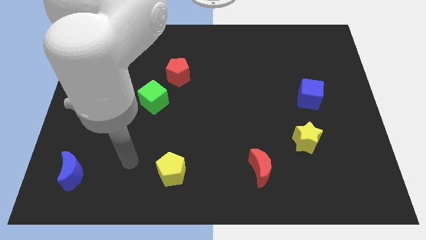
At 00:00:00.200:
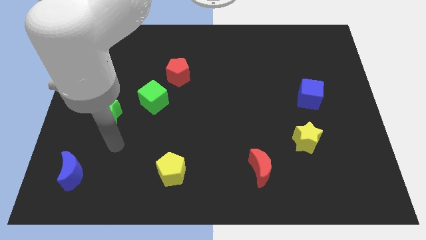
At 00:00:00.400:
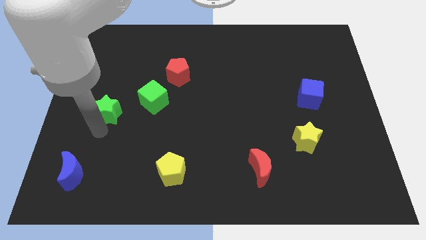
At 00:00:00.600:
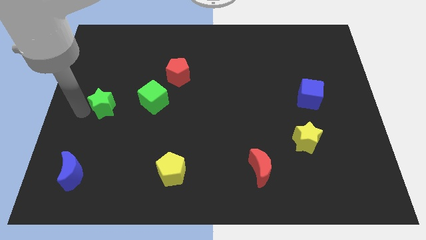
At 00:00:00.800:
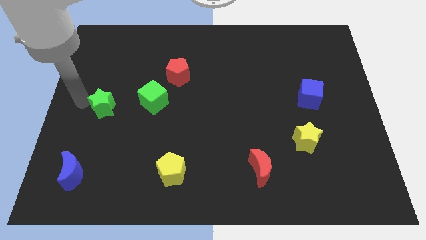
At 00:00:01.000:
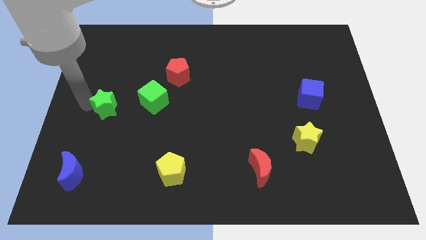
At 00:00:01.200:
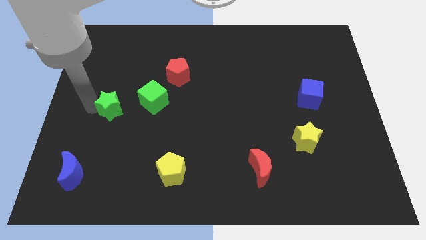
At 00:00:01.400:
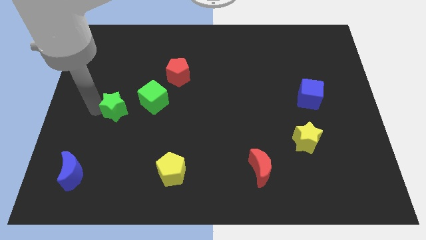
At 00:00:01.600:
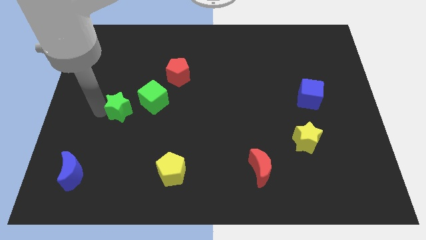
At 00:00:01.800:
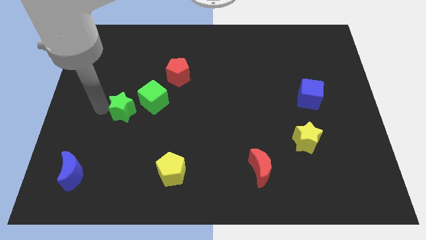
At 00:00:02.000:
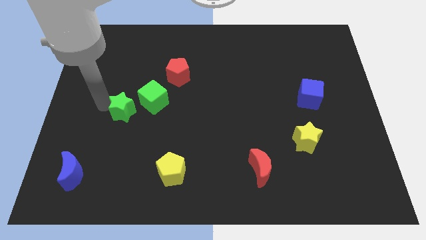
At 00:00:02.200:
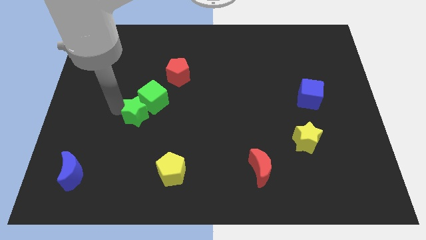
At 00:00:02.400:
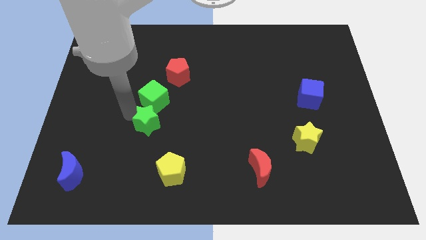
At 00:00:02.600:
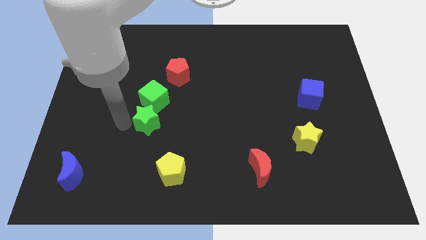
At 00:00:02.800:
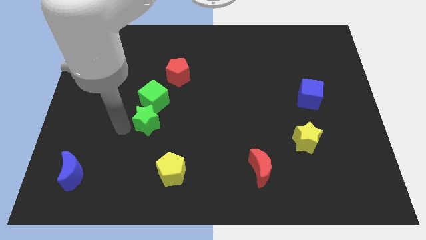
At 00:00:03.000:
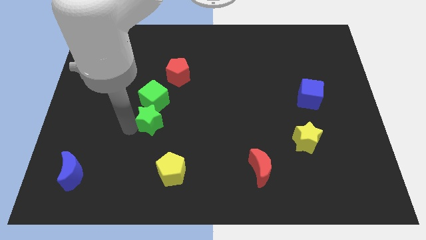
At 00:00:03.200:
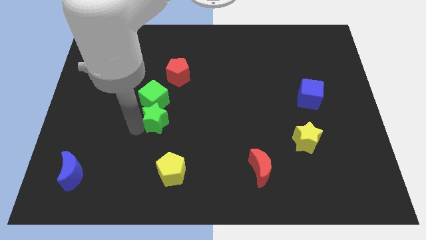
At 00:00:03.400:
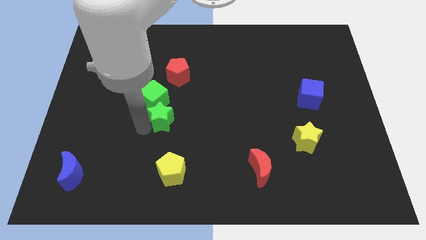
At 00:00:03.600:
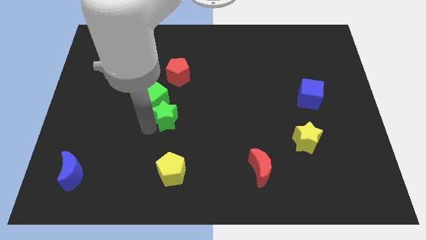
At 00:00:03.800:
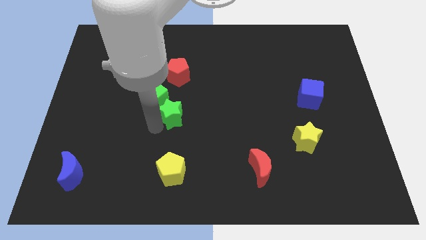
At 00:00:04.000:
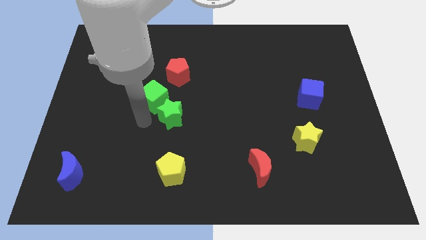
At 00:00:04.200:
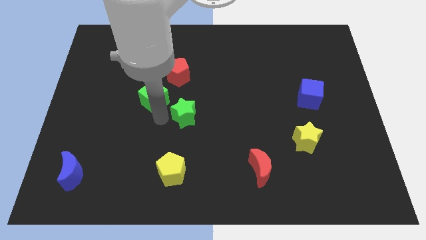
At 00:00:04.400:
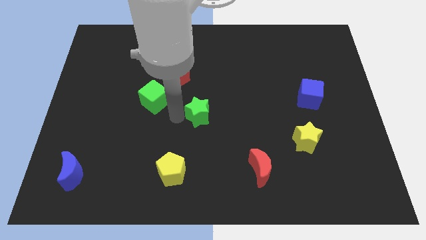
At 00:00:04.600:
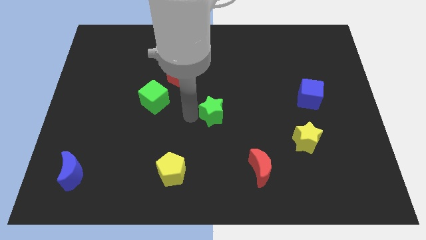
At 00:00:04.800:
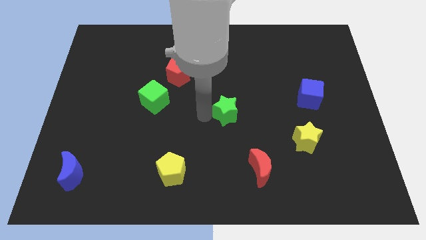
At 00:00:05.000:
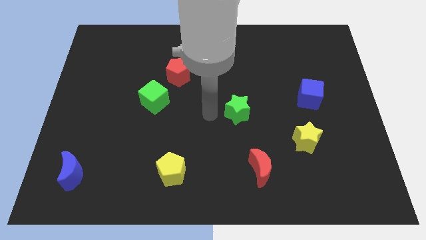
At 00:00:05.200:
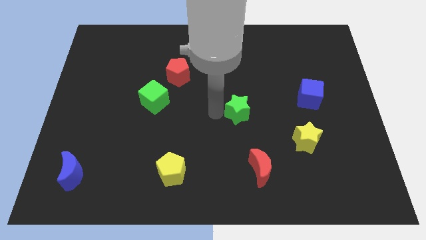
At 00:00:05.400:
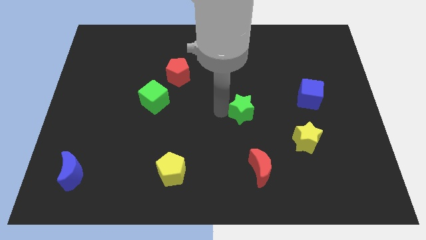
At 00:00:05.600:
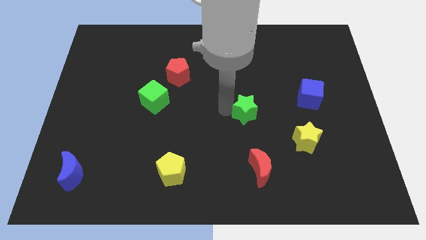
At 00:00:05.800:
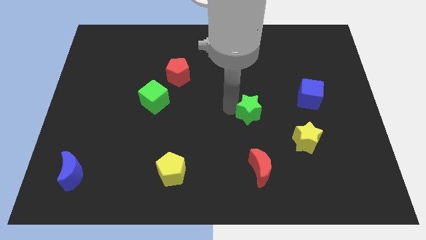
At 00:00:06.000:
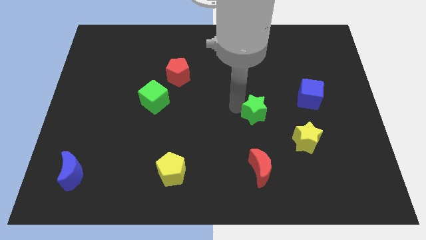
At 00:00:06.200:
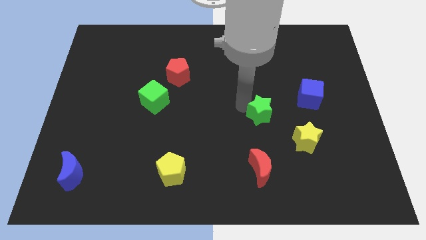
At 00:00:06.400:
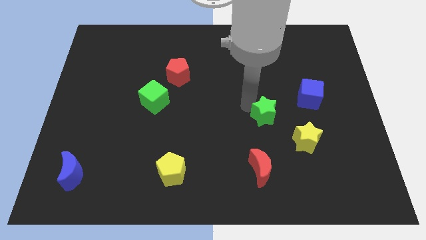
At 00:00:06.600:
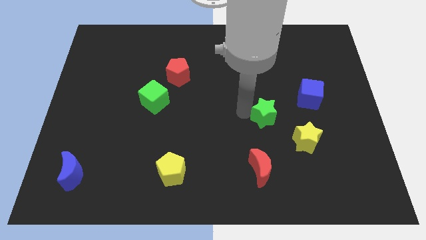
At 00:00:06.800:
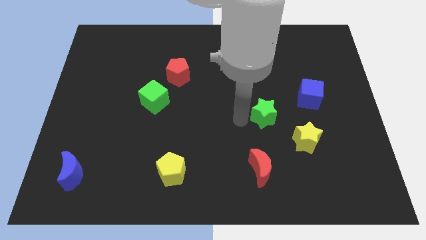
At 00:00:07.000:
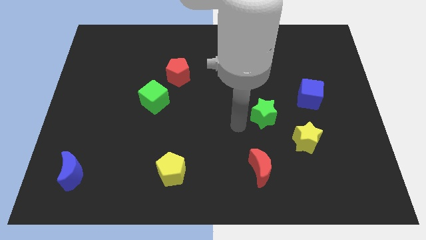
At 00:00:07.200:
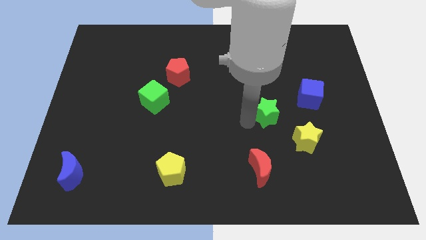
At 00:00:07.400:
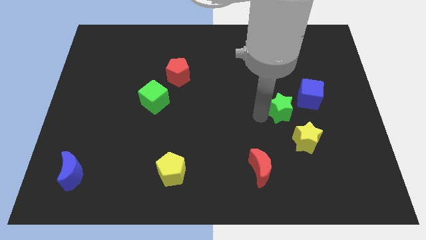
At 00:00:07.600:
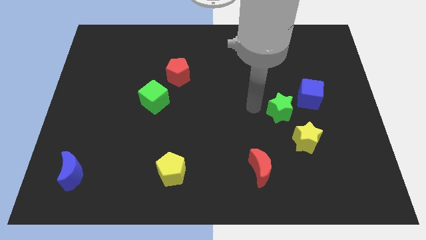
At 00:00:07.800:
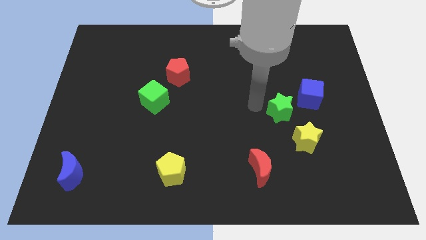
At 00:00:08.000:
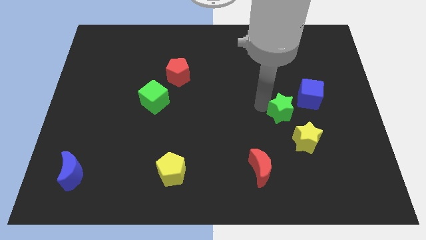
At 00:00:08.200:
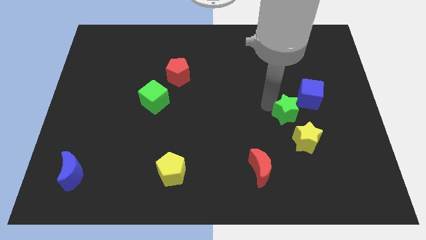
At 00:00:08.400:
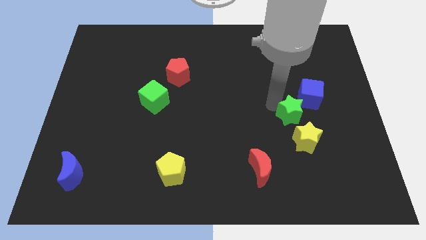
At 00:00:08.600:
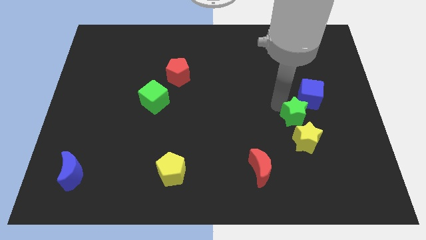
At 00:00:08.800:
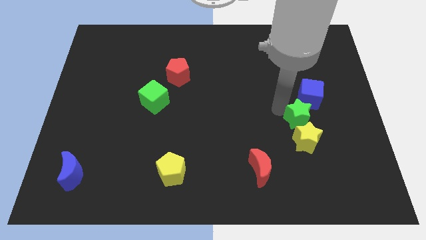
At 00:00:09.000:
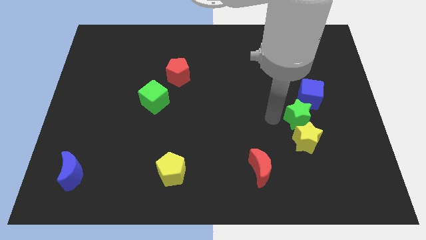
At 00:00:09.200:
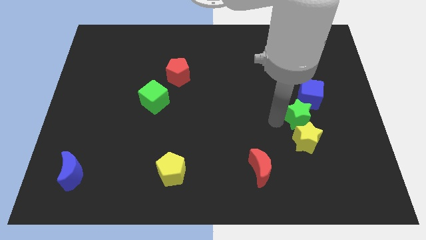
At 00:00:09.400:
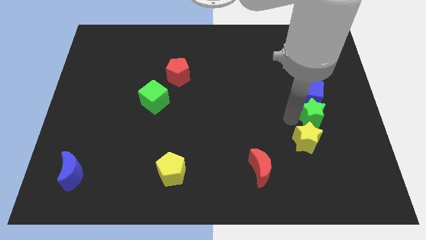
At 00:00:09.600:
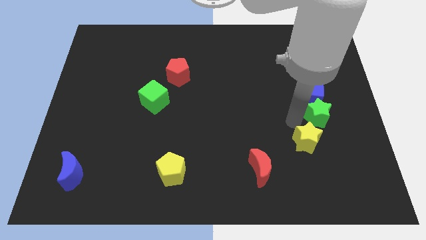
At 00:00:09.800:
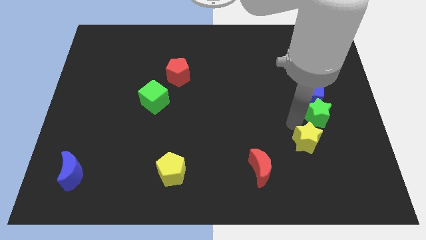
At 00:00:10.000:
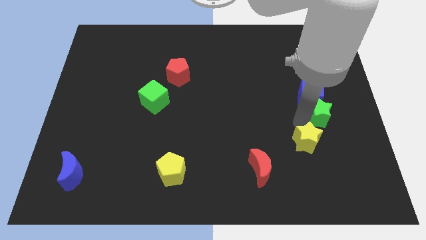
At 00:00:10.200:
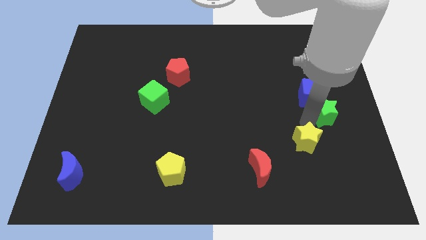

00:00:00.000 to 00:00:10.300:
slide the green star to the center right

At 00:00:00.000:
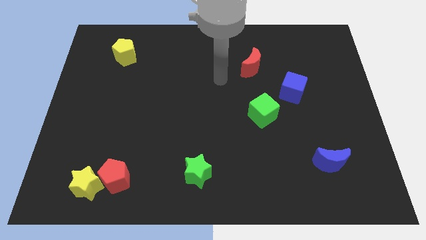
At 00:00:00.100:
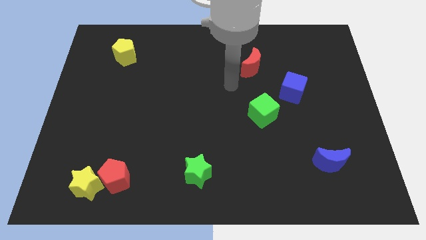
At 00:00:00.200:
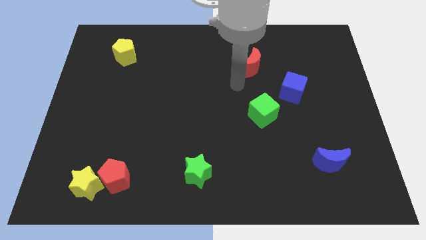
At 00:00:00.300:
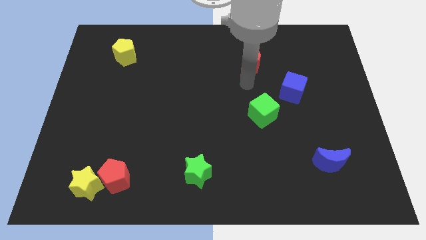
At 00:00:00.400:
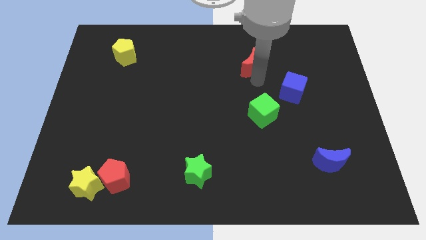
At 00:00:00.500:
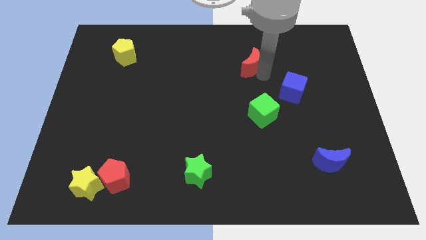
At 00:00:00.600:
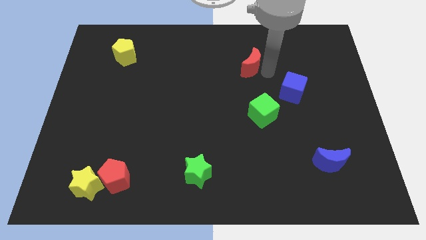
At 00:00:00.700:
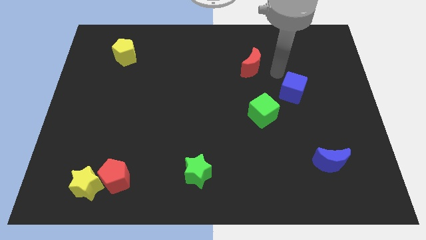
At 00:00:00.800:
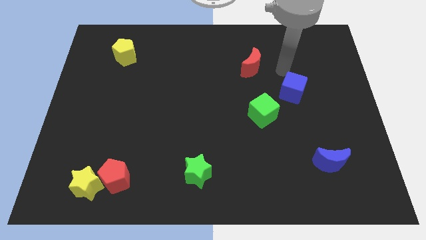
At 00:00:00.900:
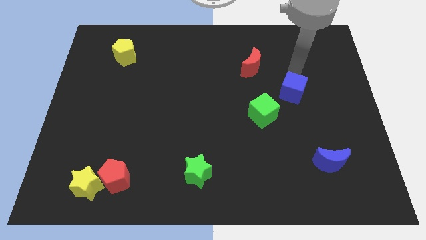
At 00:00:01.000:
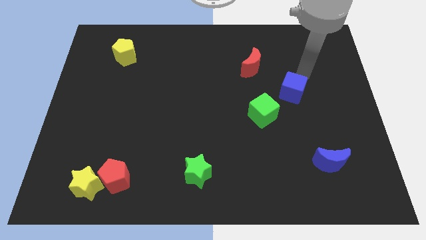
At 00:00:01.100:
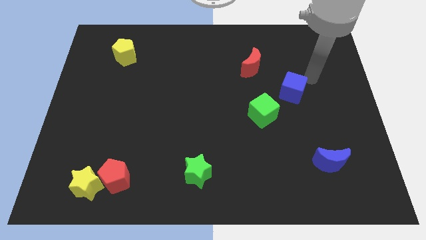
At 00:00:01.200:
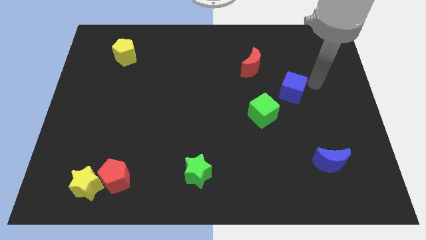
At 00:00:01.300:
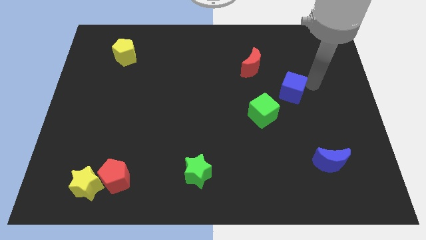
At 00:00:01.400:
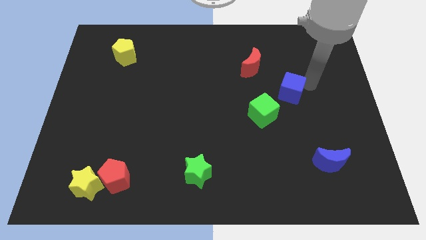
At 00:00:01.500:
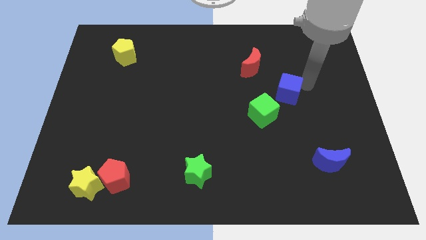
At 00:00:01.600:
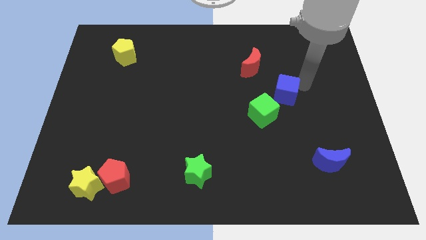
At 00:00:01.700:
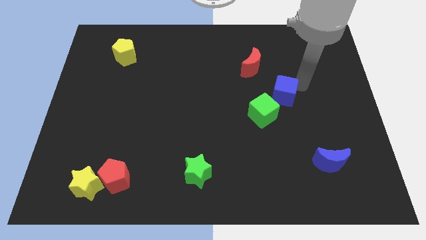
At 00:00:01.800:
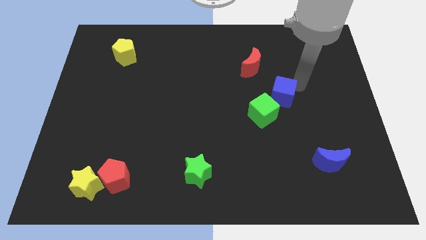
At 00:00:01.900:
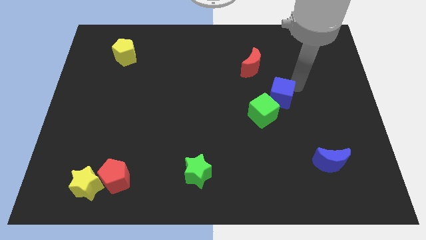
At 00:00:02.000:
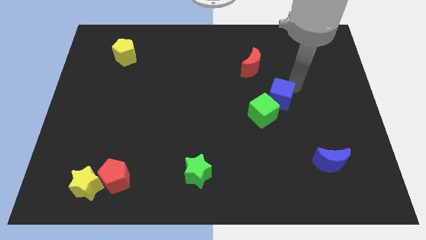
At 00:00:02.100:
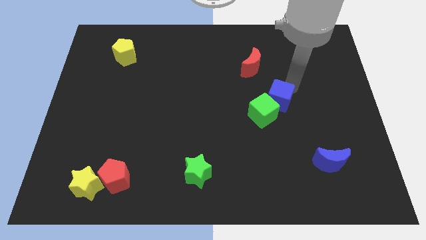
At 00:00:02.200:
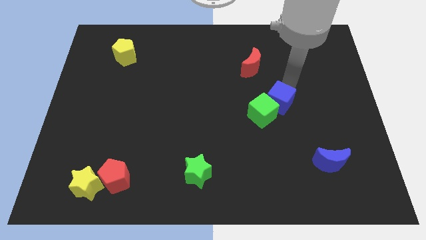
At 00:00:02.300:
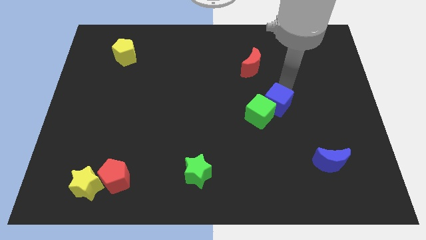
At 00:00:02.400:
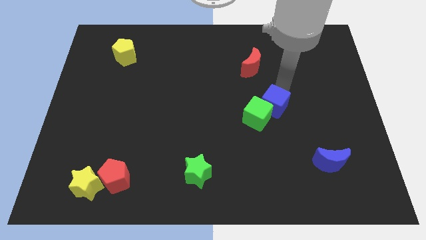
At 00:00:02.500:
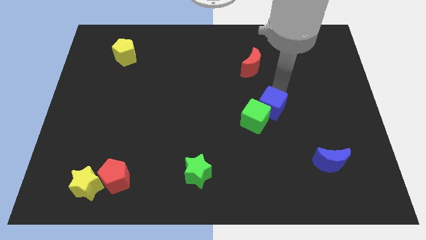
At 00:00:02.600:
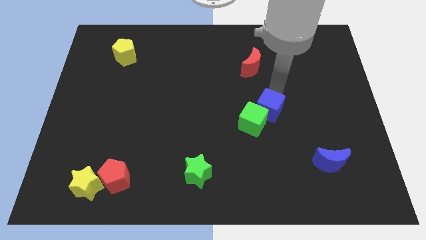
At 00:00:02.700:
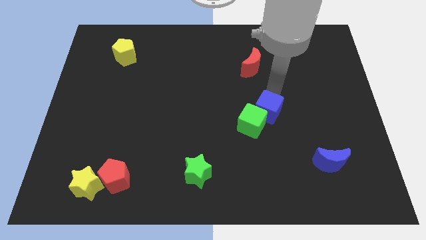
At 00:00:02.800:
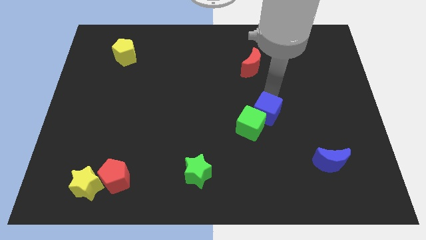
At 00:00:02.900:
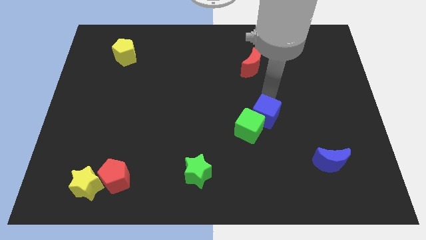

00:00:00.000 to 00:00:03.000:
slide the blue cube to the middle of the board
